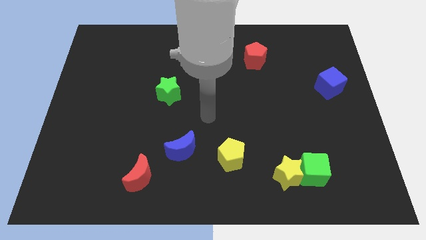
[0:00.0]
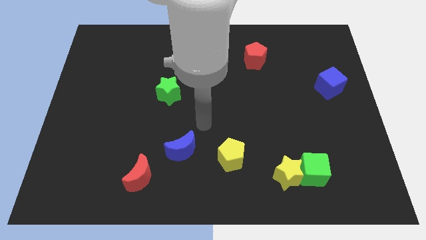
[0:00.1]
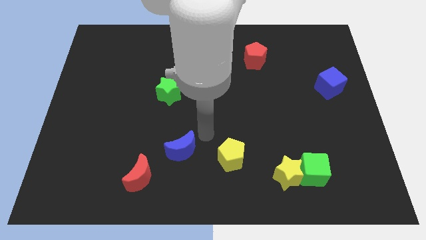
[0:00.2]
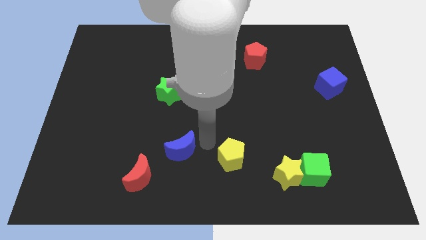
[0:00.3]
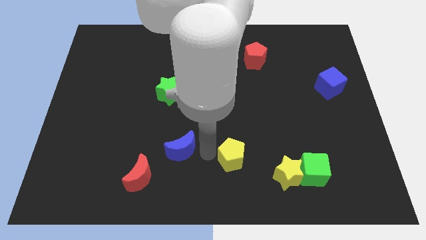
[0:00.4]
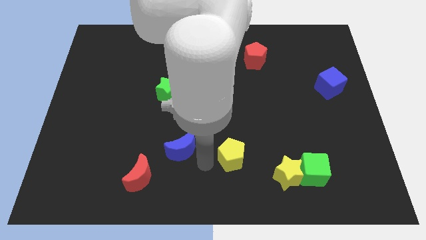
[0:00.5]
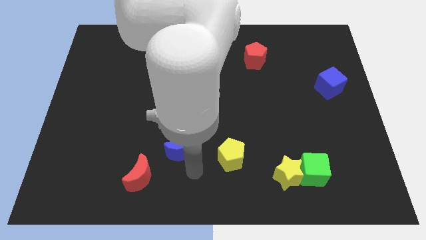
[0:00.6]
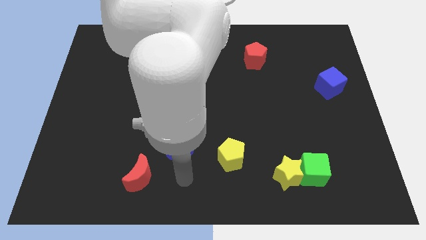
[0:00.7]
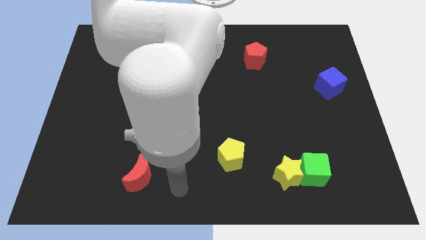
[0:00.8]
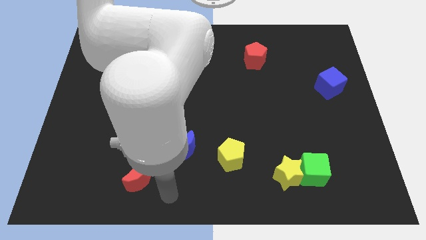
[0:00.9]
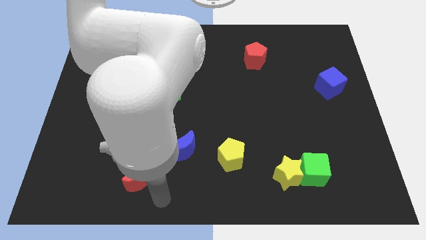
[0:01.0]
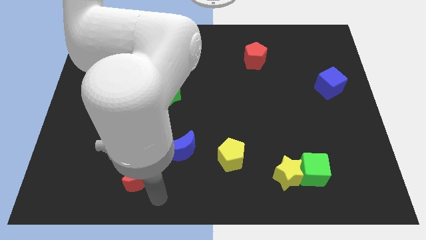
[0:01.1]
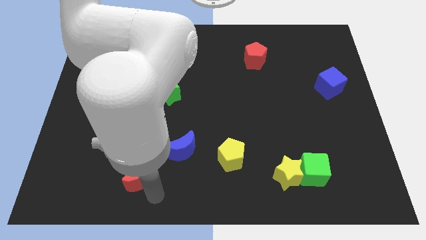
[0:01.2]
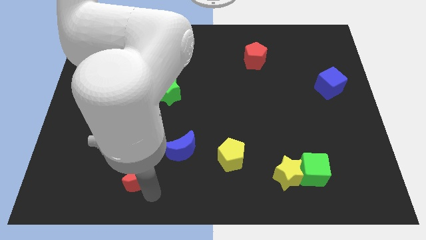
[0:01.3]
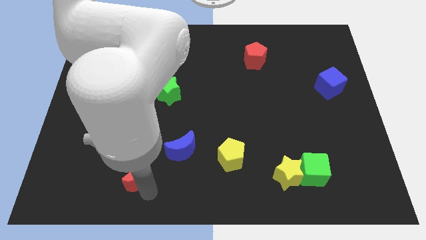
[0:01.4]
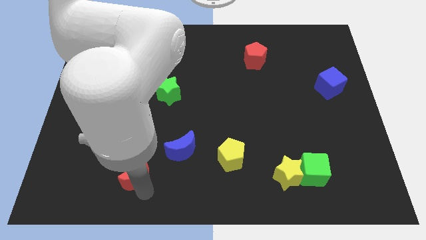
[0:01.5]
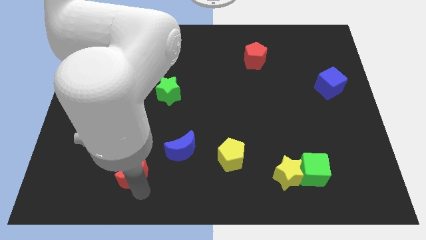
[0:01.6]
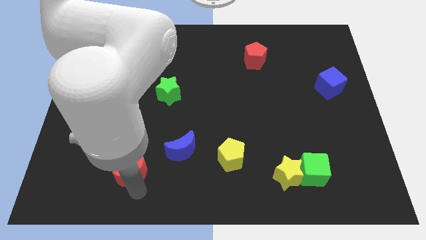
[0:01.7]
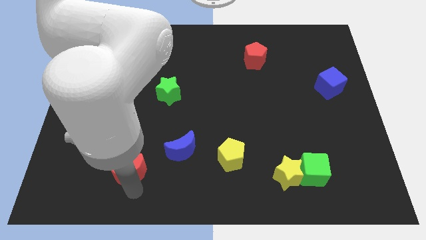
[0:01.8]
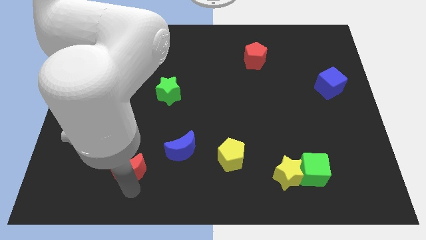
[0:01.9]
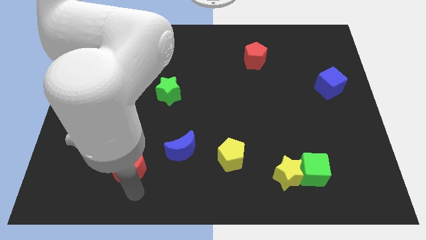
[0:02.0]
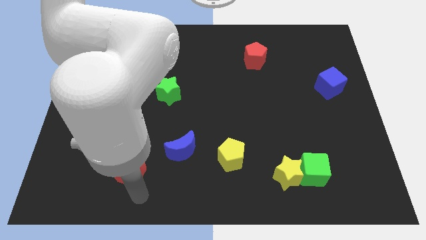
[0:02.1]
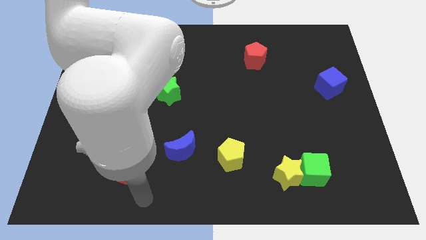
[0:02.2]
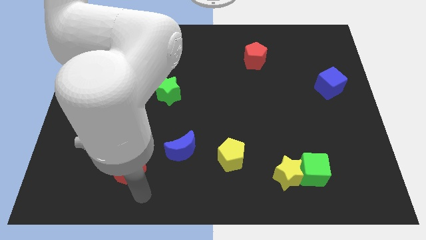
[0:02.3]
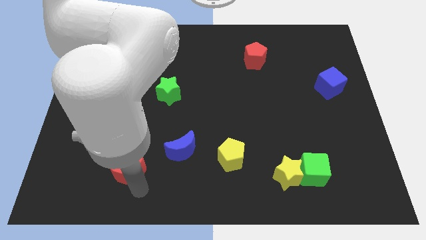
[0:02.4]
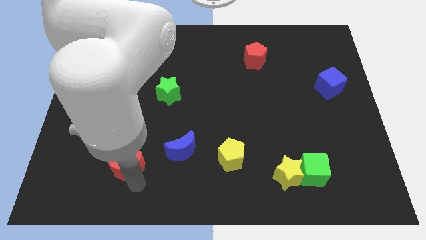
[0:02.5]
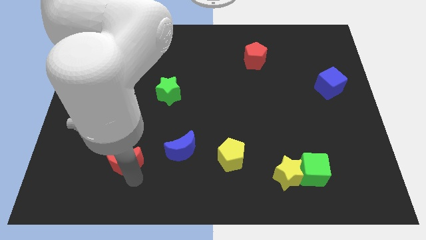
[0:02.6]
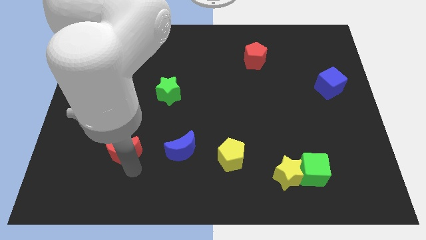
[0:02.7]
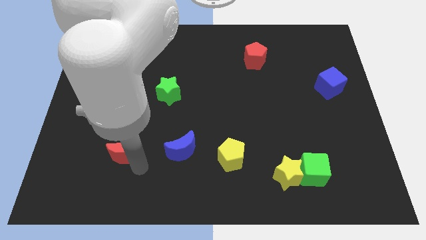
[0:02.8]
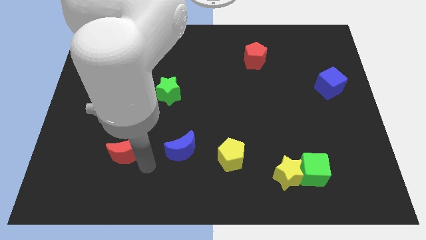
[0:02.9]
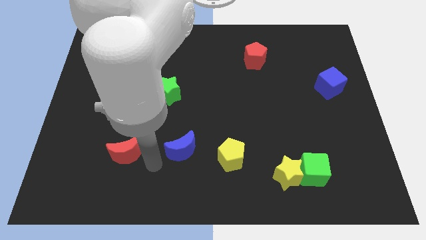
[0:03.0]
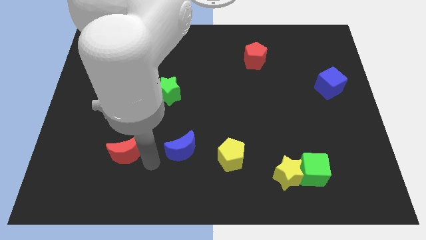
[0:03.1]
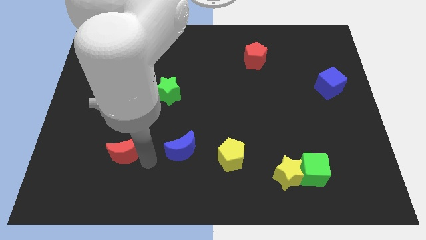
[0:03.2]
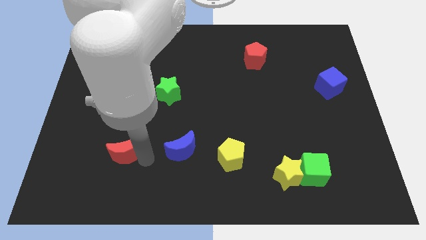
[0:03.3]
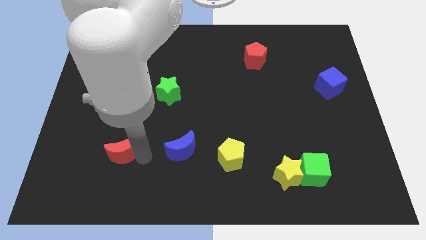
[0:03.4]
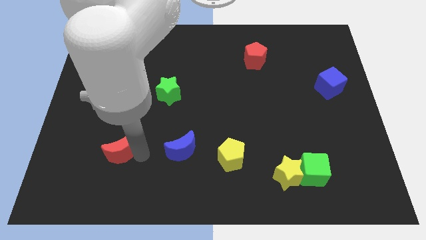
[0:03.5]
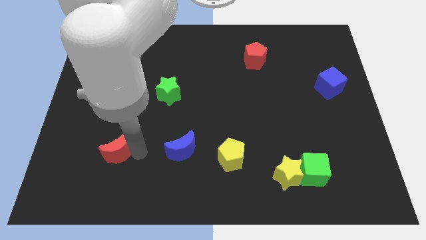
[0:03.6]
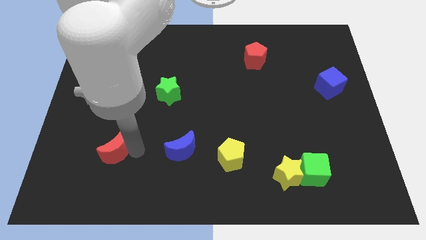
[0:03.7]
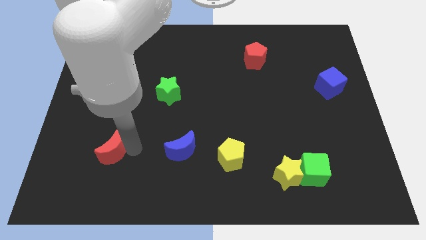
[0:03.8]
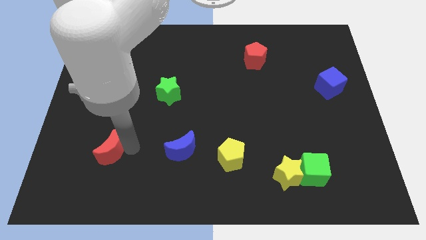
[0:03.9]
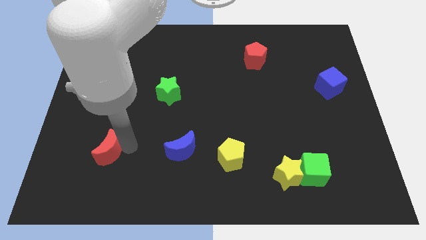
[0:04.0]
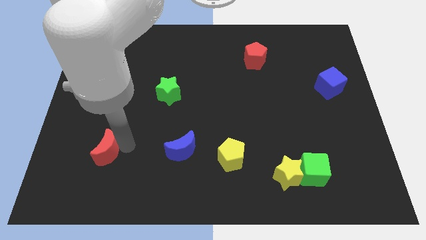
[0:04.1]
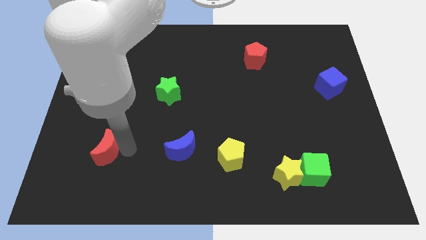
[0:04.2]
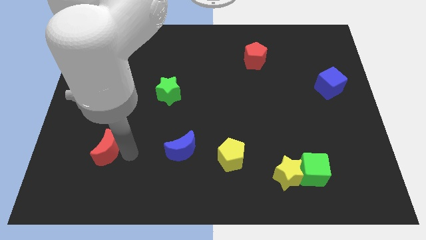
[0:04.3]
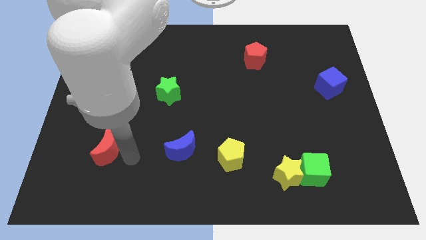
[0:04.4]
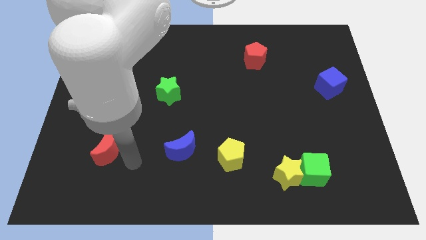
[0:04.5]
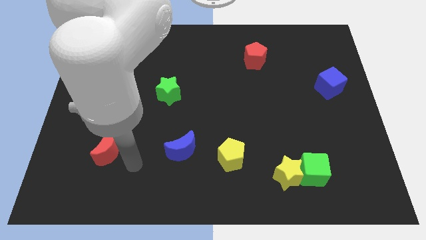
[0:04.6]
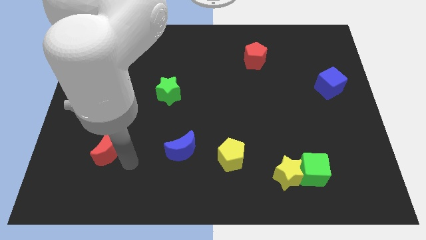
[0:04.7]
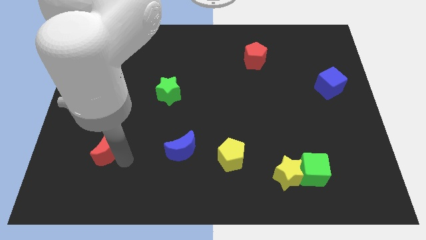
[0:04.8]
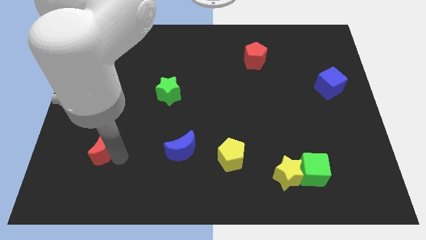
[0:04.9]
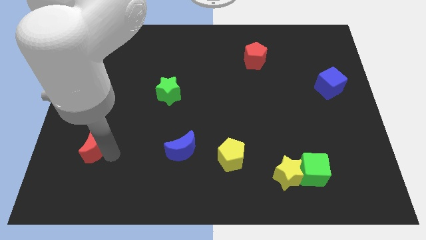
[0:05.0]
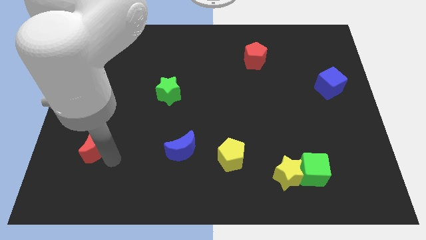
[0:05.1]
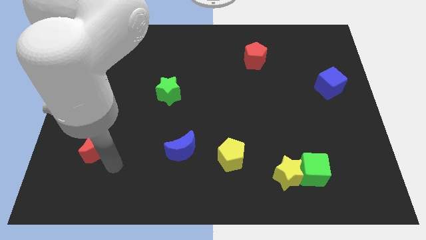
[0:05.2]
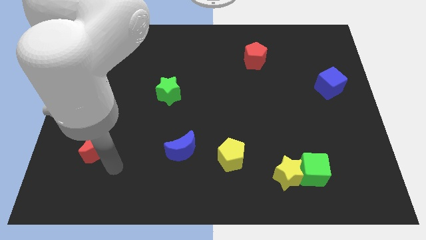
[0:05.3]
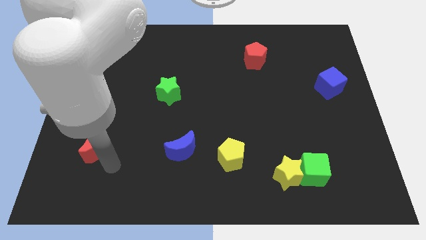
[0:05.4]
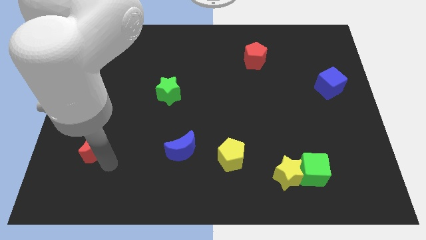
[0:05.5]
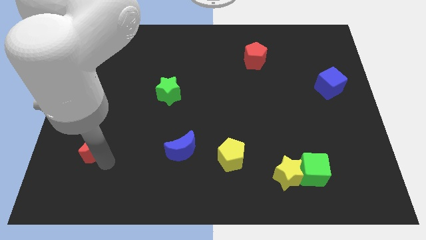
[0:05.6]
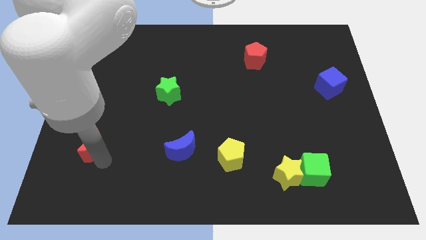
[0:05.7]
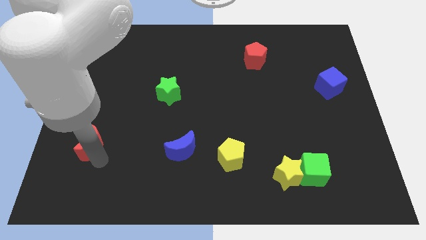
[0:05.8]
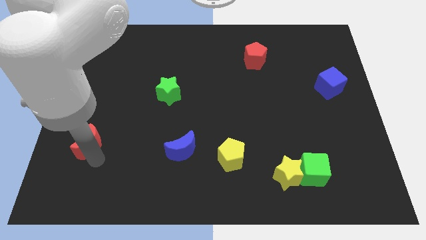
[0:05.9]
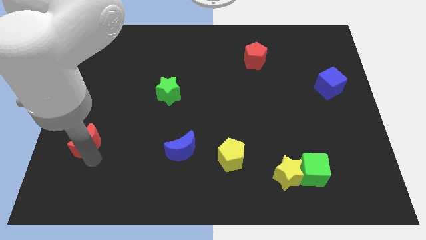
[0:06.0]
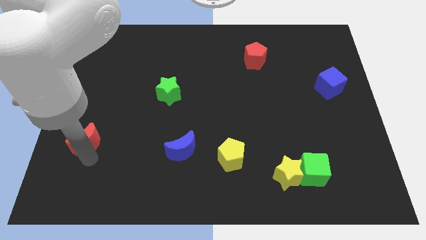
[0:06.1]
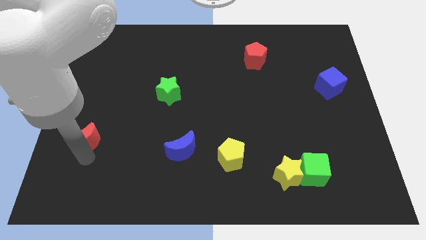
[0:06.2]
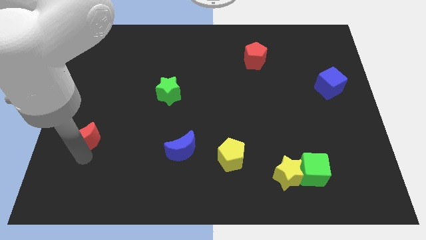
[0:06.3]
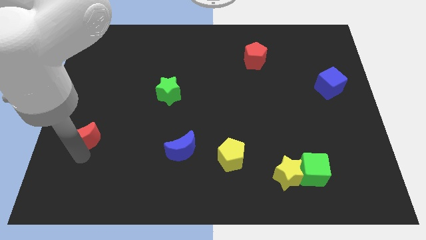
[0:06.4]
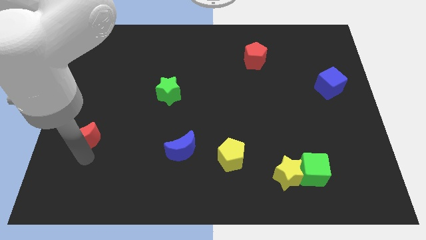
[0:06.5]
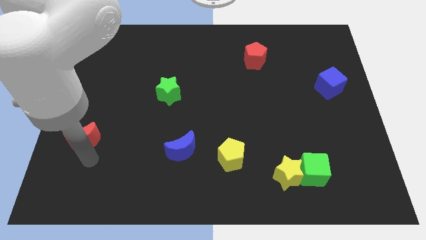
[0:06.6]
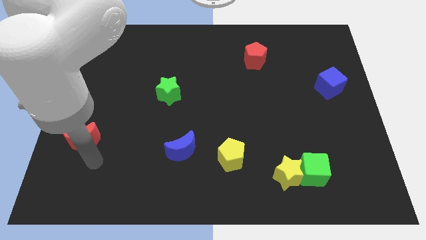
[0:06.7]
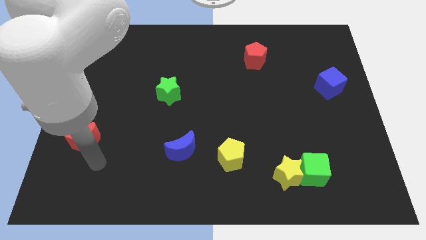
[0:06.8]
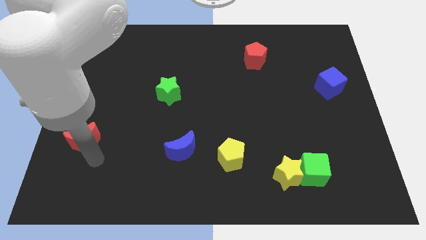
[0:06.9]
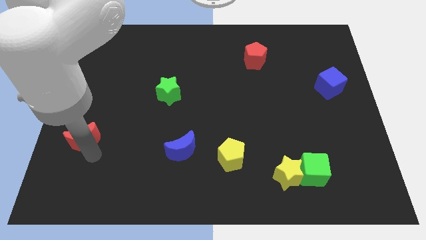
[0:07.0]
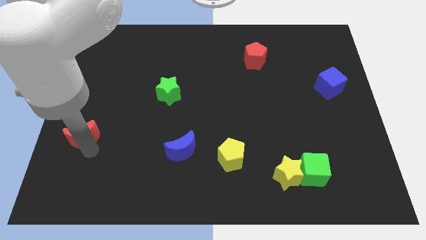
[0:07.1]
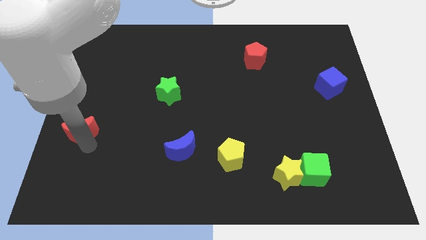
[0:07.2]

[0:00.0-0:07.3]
push the red moon to the left side of the board
